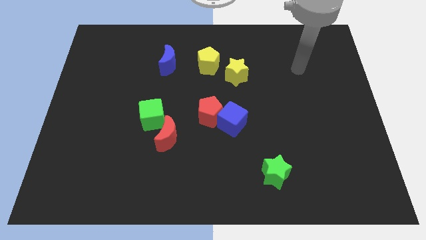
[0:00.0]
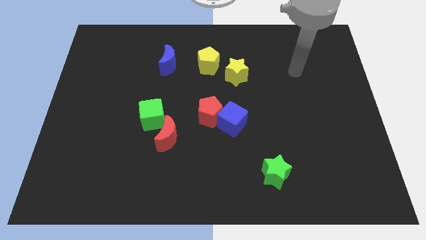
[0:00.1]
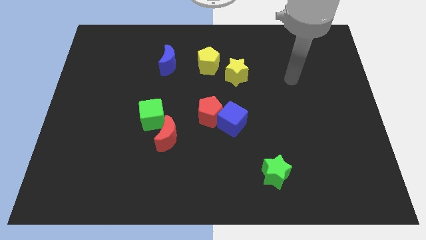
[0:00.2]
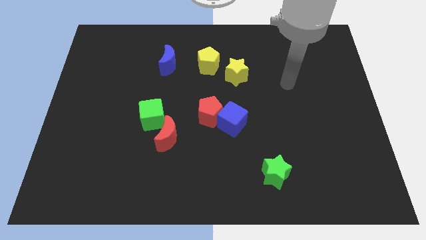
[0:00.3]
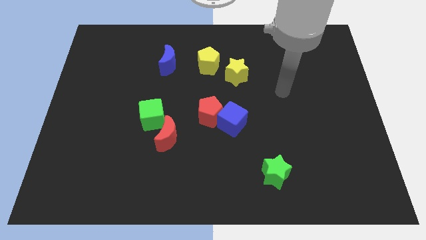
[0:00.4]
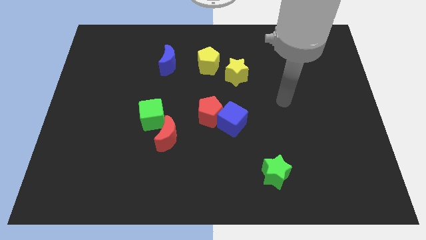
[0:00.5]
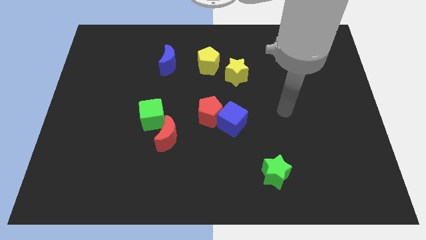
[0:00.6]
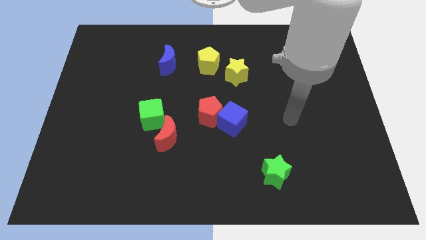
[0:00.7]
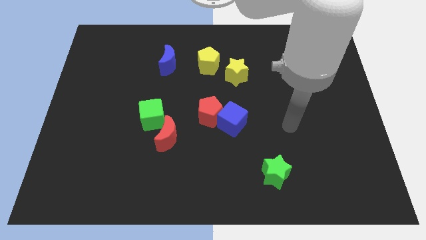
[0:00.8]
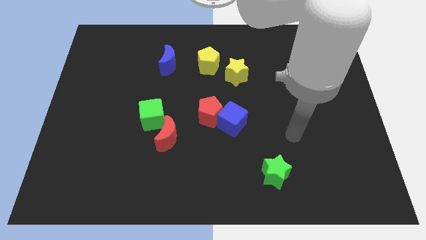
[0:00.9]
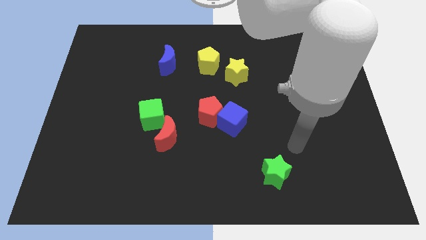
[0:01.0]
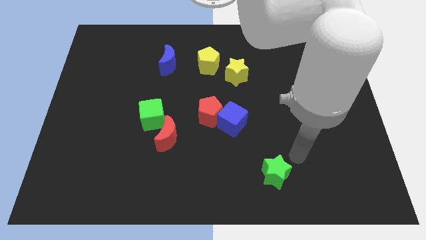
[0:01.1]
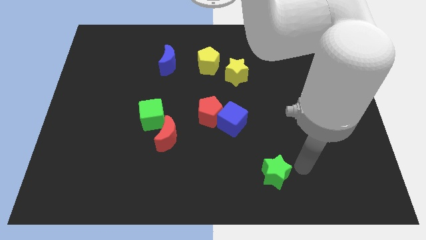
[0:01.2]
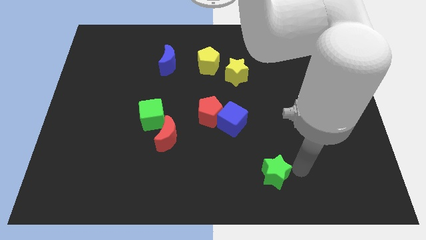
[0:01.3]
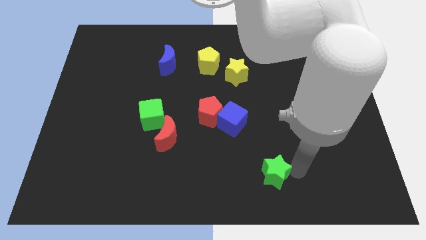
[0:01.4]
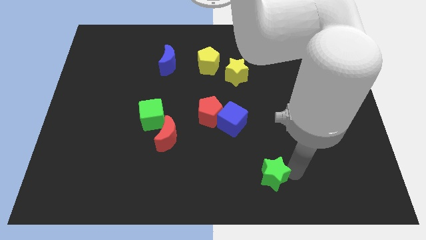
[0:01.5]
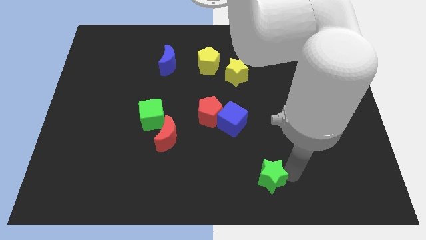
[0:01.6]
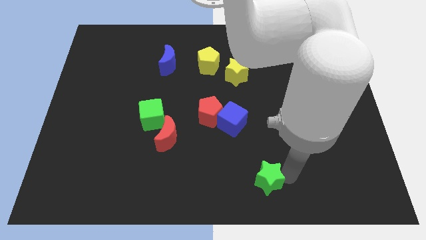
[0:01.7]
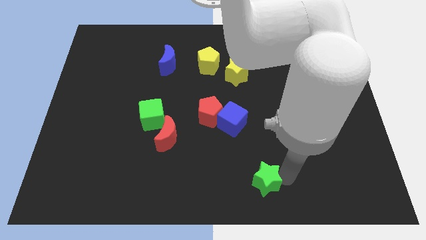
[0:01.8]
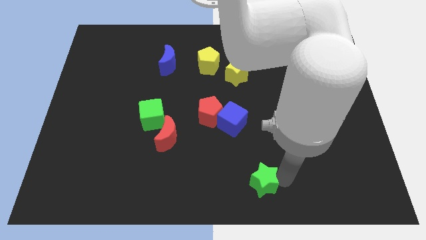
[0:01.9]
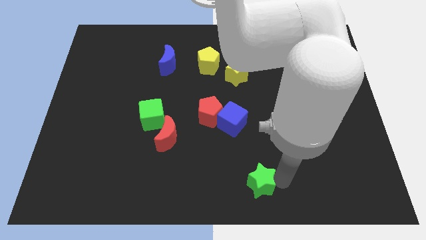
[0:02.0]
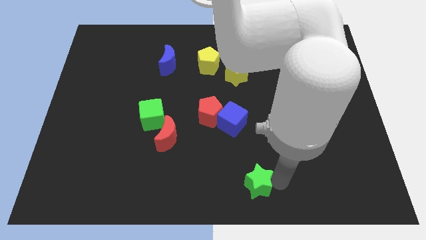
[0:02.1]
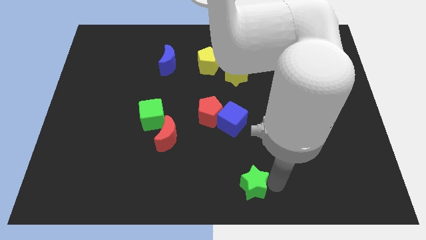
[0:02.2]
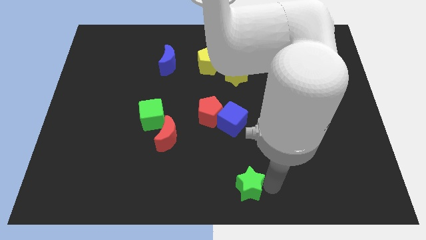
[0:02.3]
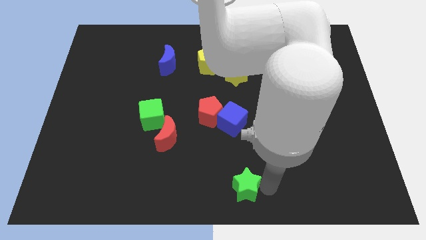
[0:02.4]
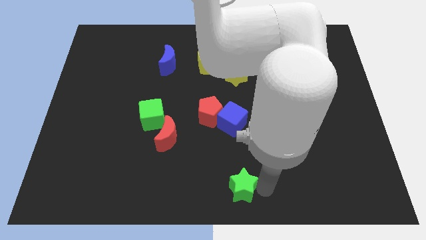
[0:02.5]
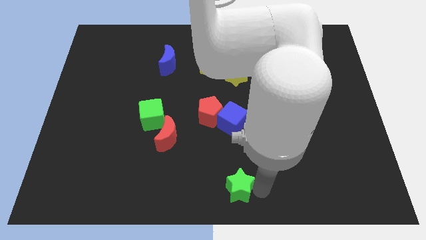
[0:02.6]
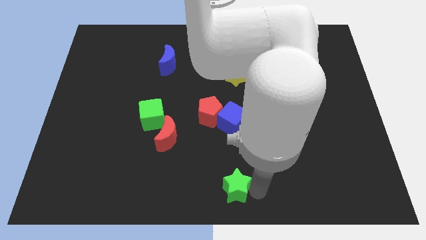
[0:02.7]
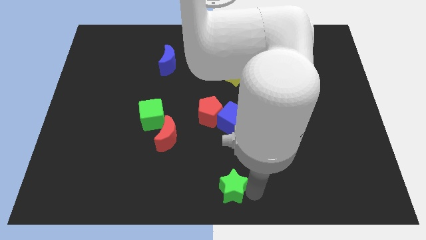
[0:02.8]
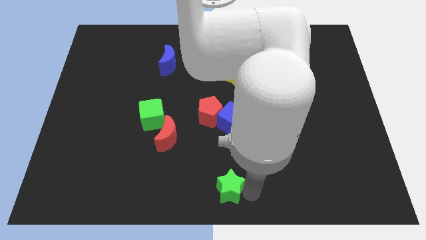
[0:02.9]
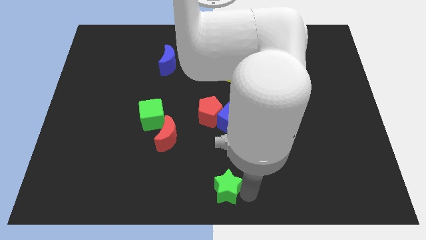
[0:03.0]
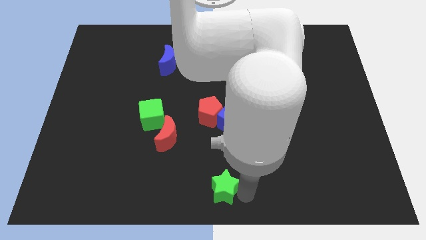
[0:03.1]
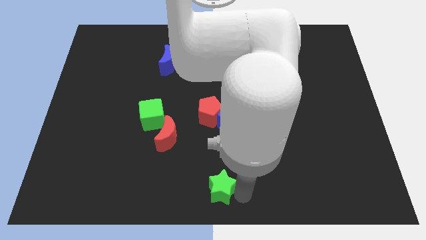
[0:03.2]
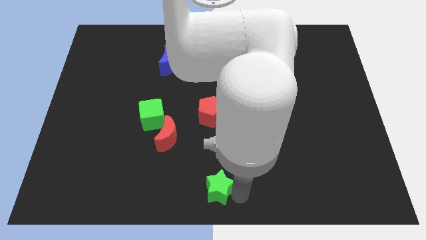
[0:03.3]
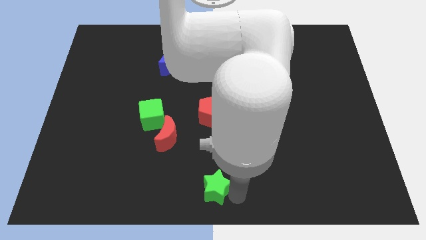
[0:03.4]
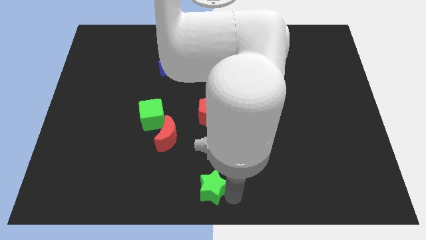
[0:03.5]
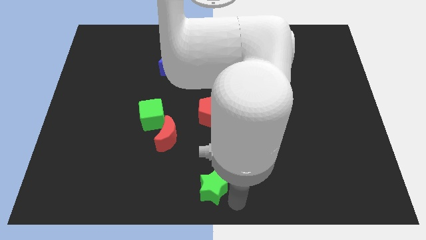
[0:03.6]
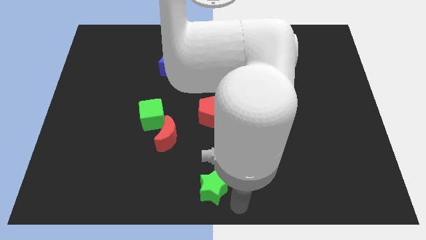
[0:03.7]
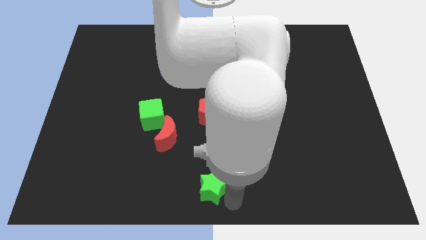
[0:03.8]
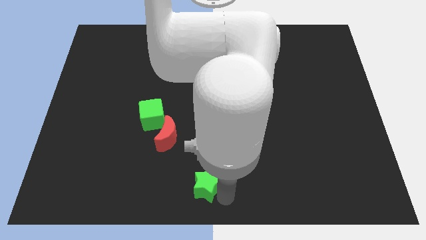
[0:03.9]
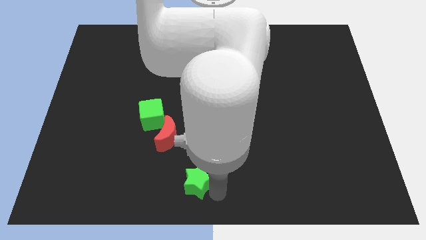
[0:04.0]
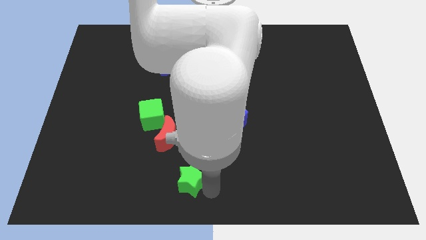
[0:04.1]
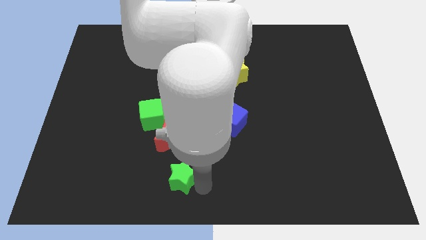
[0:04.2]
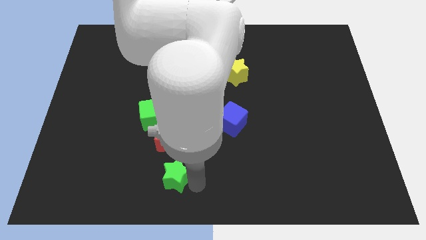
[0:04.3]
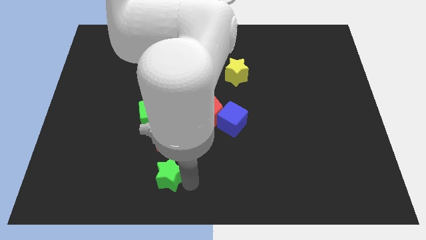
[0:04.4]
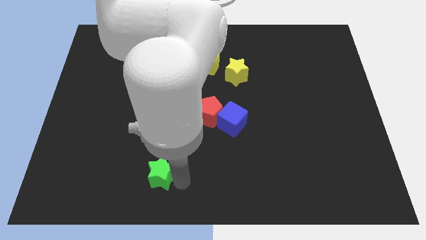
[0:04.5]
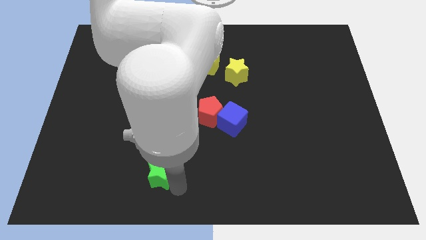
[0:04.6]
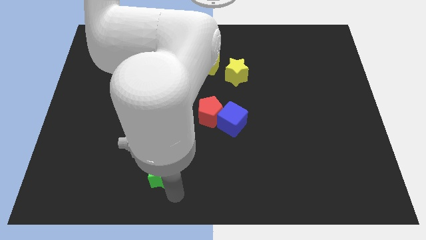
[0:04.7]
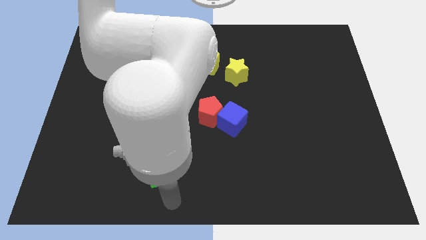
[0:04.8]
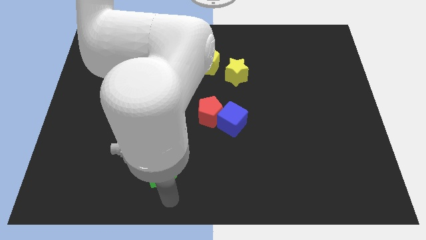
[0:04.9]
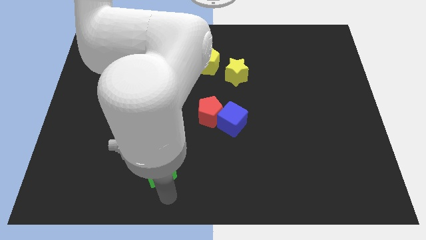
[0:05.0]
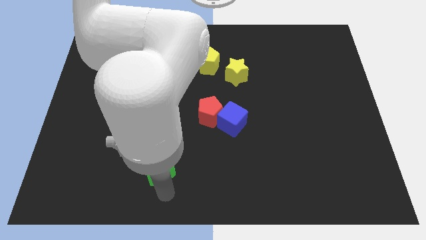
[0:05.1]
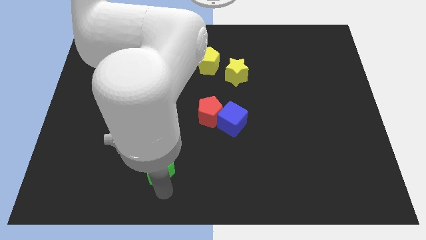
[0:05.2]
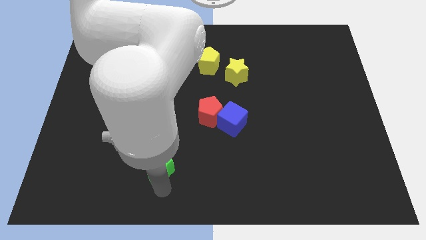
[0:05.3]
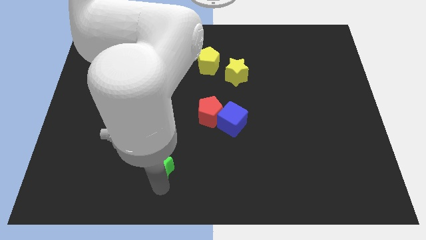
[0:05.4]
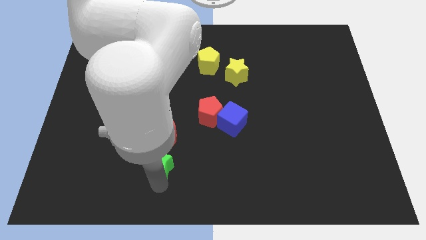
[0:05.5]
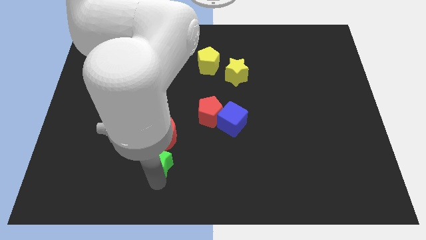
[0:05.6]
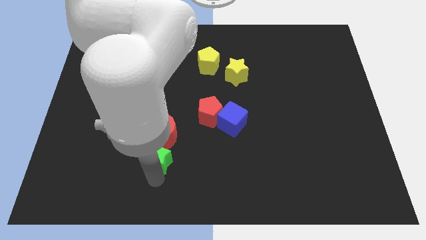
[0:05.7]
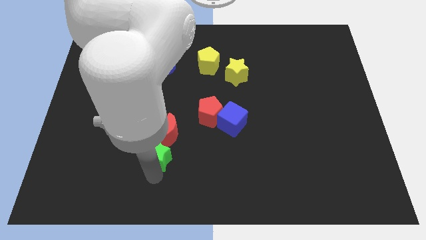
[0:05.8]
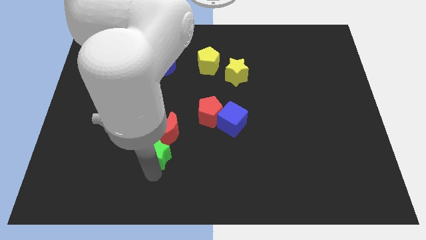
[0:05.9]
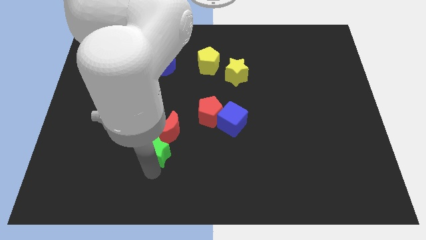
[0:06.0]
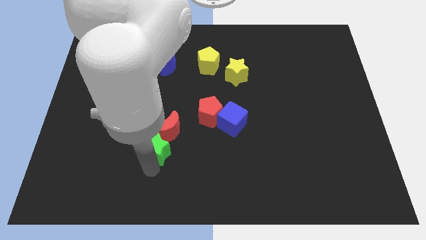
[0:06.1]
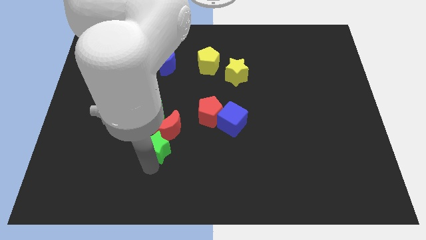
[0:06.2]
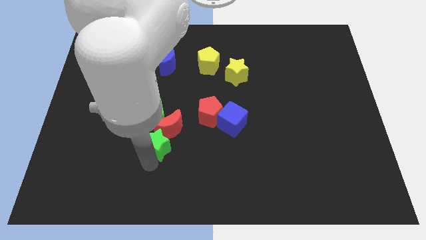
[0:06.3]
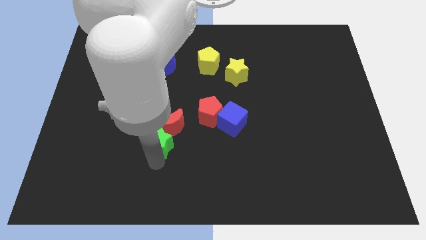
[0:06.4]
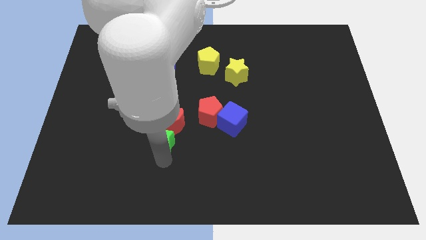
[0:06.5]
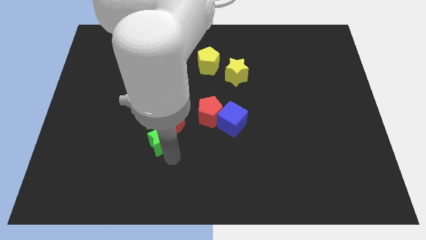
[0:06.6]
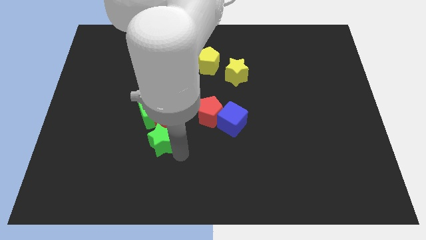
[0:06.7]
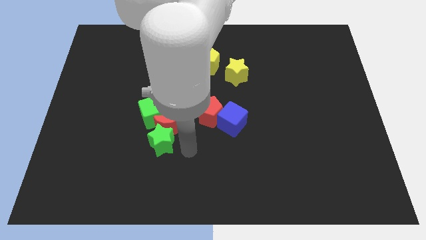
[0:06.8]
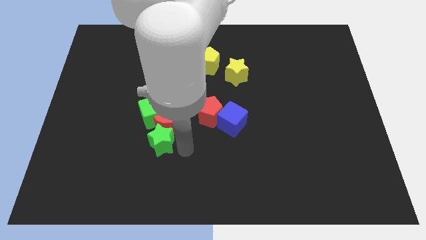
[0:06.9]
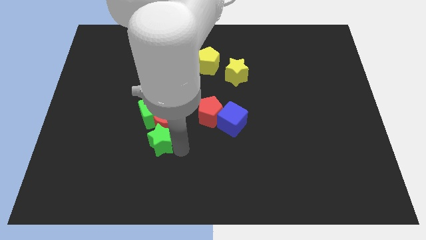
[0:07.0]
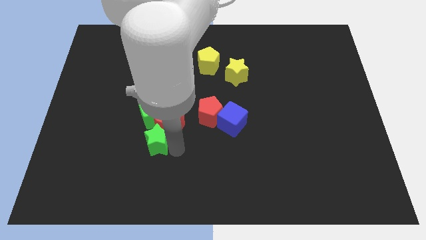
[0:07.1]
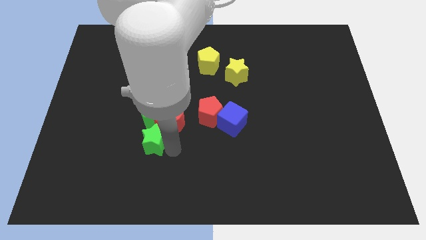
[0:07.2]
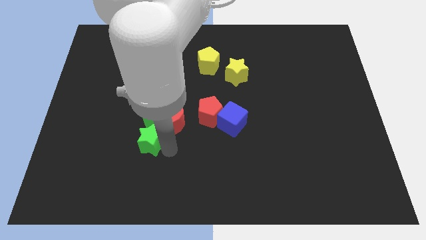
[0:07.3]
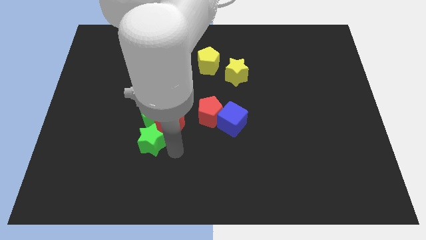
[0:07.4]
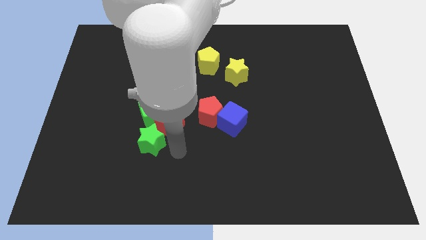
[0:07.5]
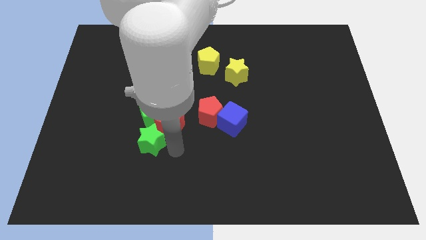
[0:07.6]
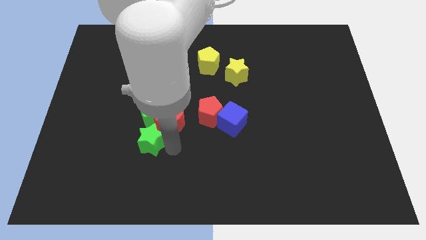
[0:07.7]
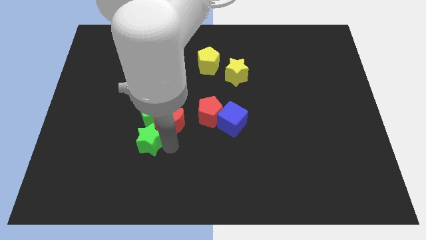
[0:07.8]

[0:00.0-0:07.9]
slide the green star diagonally down and to the left of the green cube
